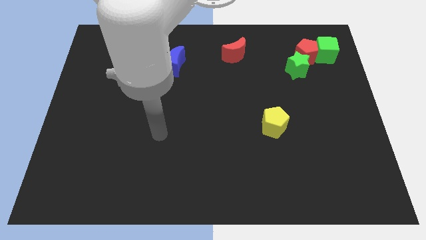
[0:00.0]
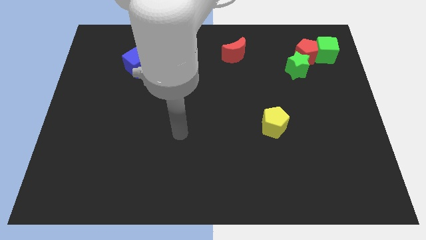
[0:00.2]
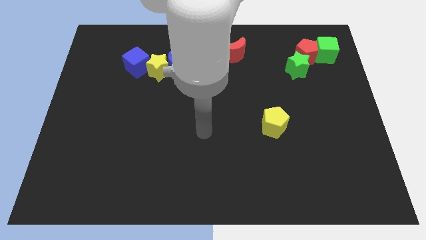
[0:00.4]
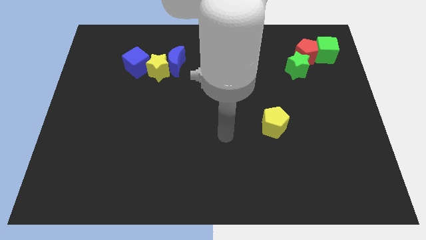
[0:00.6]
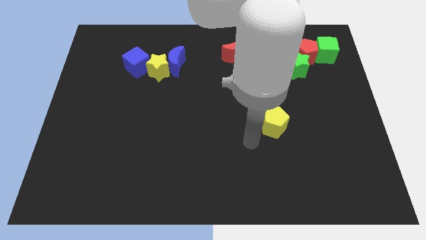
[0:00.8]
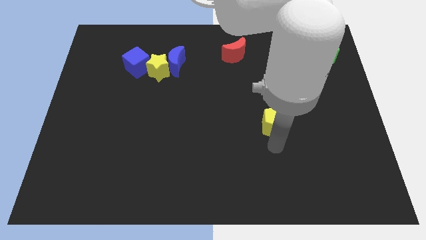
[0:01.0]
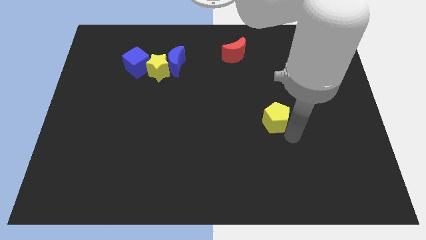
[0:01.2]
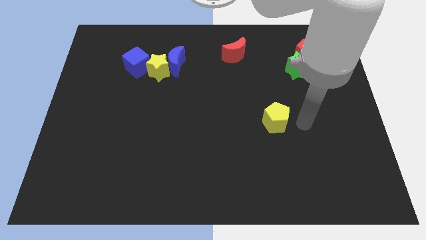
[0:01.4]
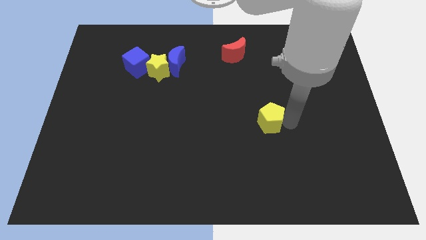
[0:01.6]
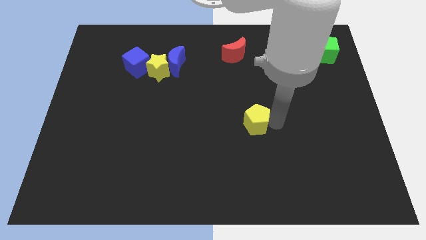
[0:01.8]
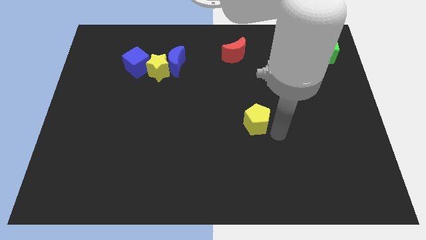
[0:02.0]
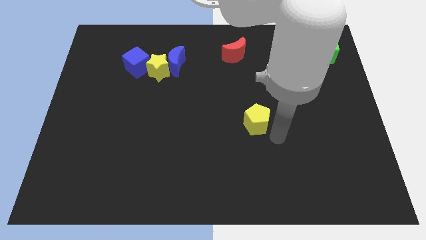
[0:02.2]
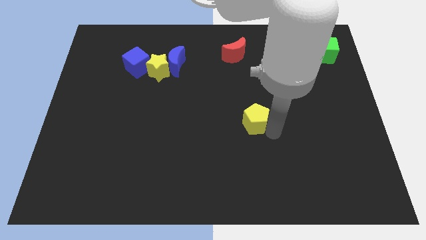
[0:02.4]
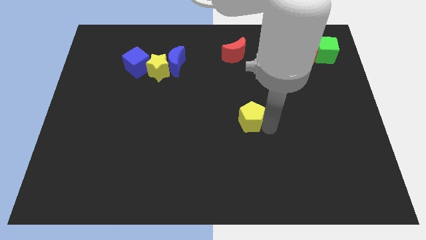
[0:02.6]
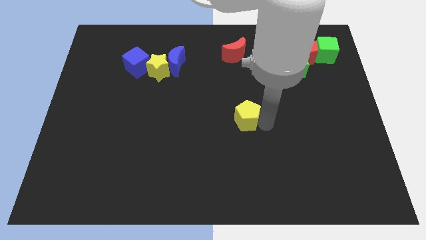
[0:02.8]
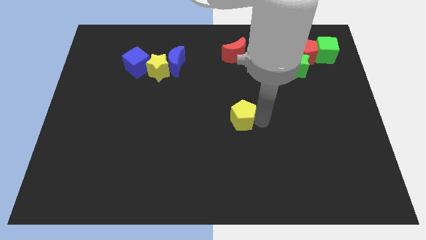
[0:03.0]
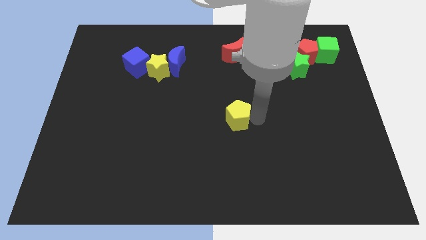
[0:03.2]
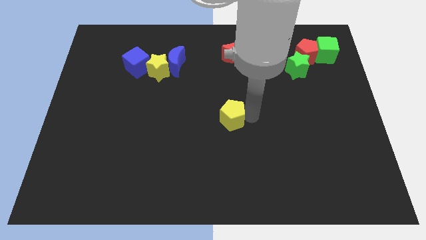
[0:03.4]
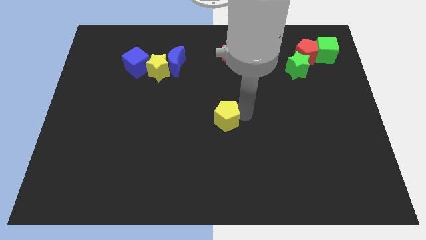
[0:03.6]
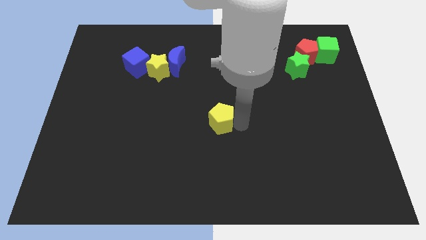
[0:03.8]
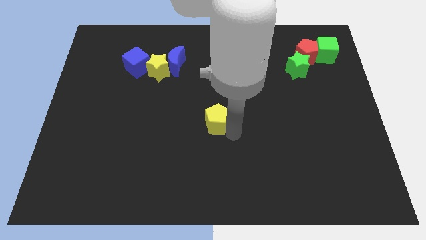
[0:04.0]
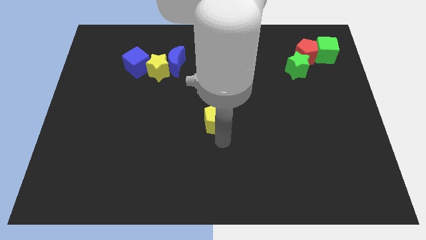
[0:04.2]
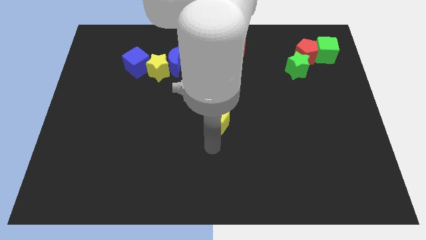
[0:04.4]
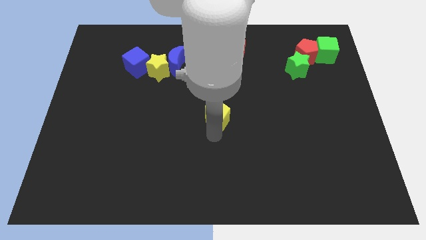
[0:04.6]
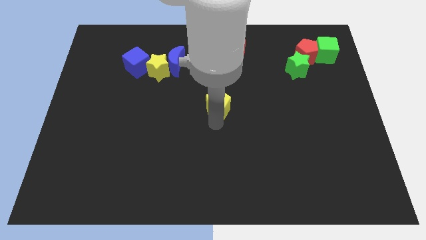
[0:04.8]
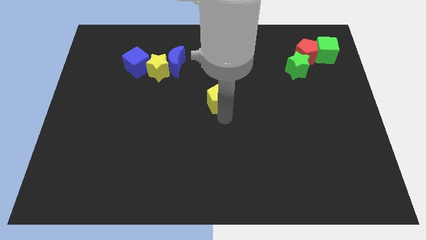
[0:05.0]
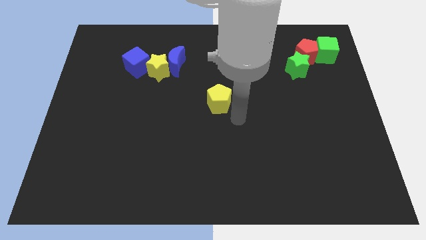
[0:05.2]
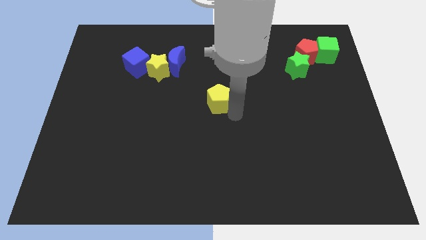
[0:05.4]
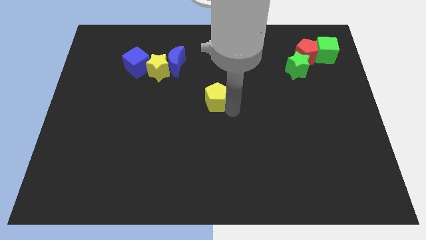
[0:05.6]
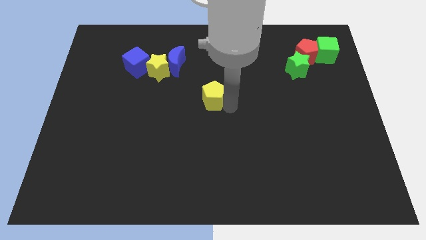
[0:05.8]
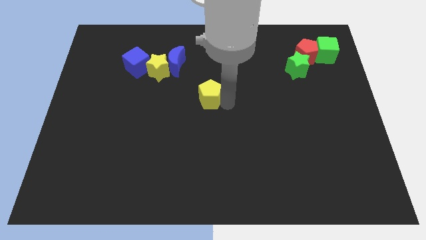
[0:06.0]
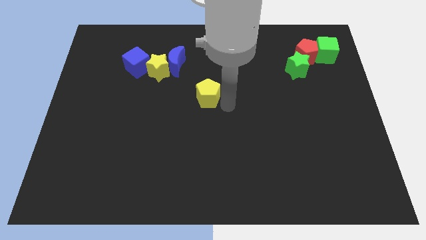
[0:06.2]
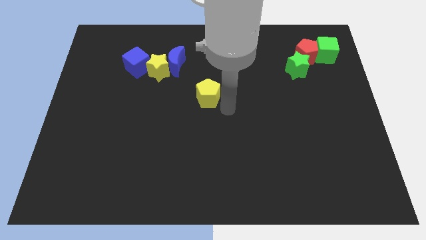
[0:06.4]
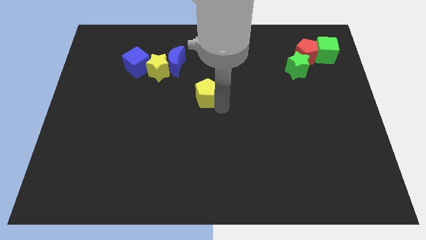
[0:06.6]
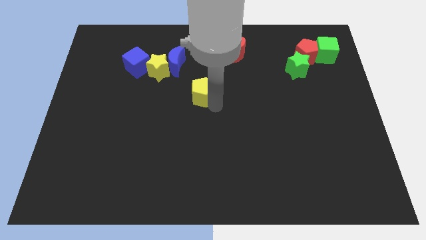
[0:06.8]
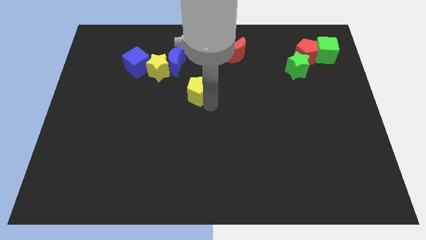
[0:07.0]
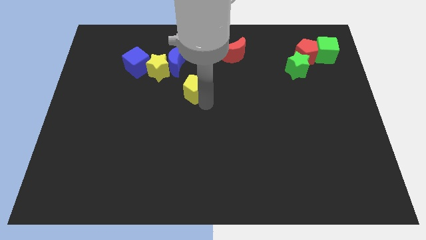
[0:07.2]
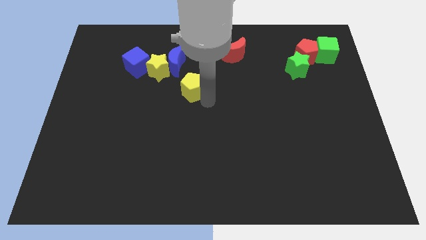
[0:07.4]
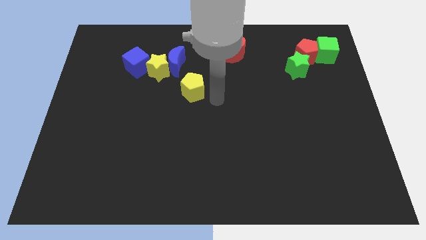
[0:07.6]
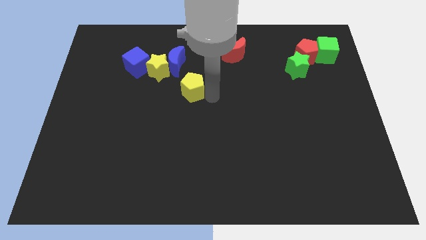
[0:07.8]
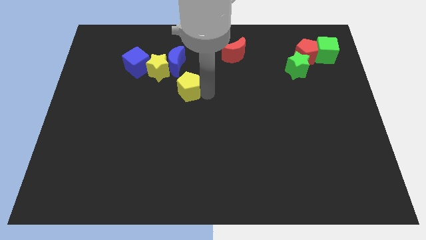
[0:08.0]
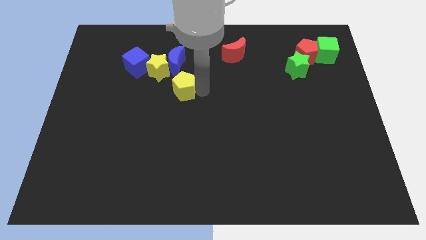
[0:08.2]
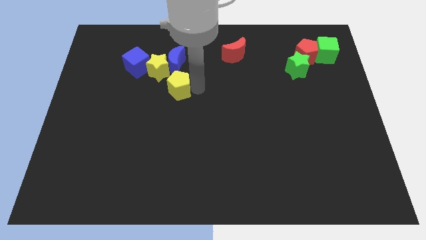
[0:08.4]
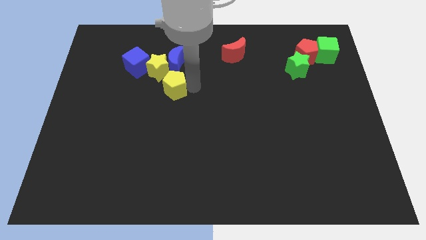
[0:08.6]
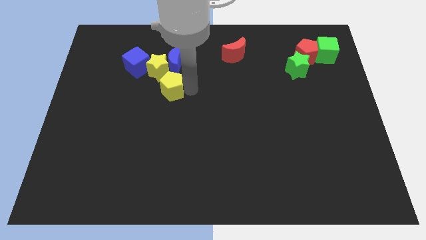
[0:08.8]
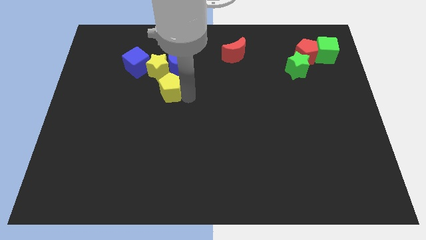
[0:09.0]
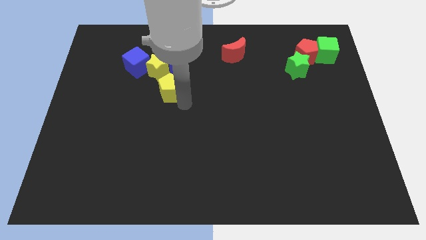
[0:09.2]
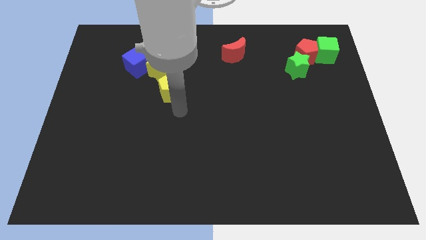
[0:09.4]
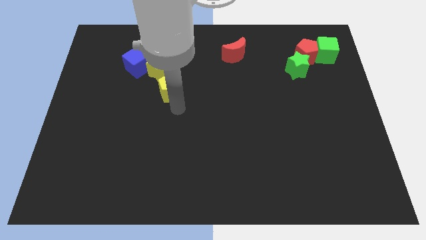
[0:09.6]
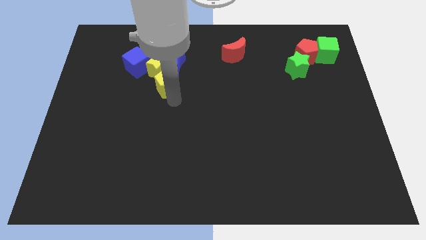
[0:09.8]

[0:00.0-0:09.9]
slide the yellow pentagon towards the yellow star

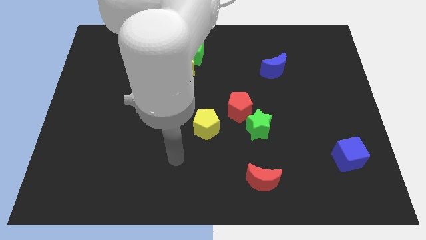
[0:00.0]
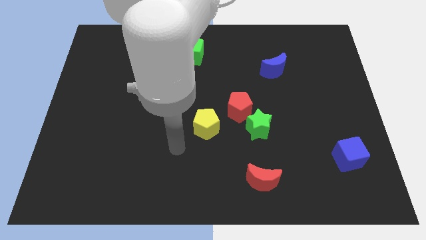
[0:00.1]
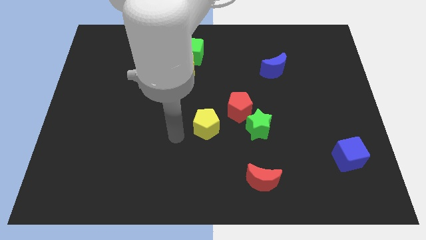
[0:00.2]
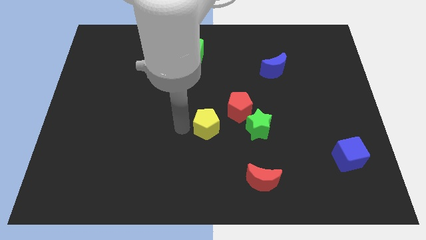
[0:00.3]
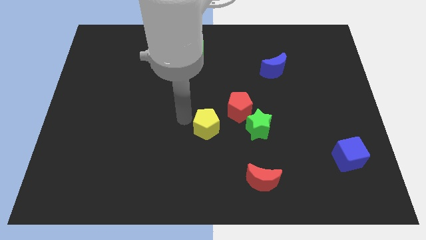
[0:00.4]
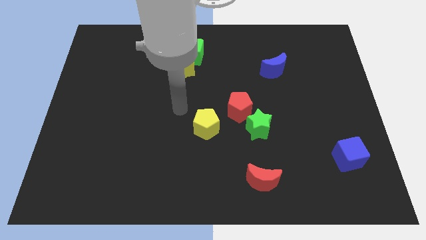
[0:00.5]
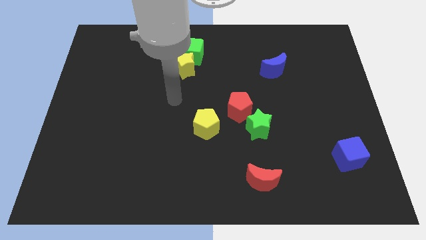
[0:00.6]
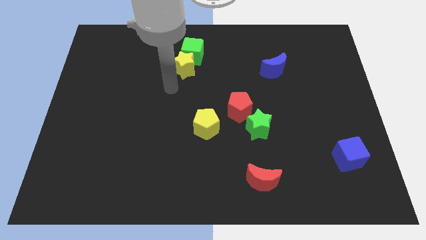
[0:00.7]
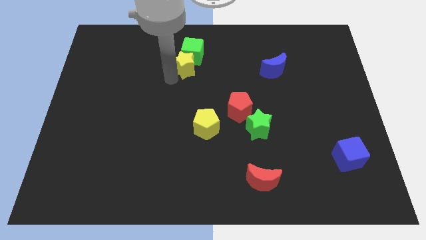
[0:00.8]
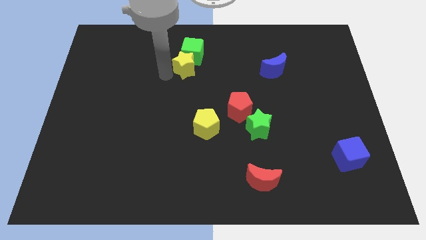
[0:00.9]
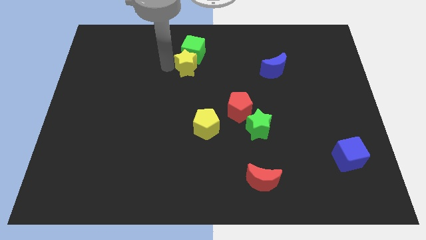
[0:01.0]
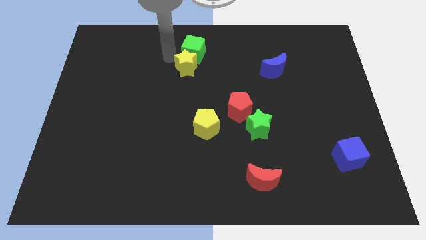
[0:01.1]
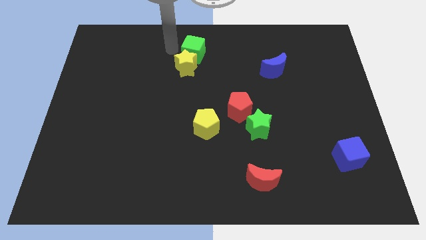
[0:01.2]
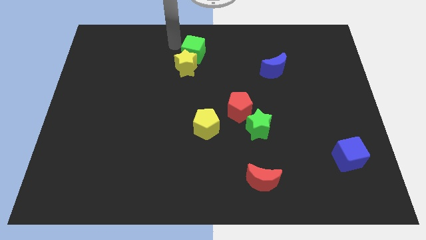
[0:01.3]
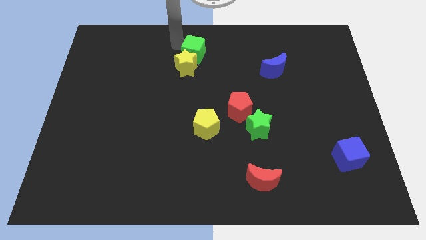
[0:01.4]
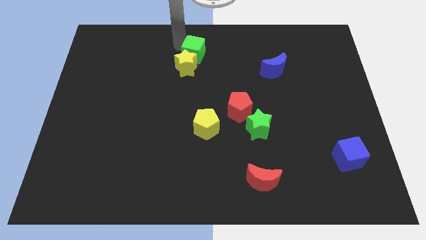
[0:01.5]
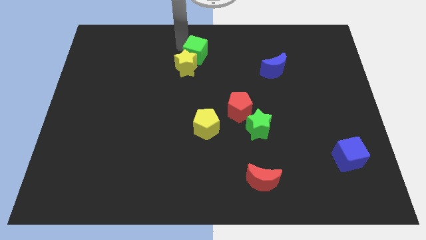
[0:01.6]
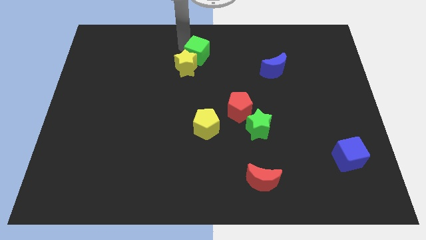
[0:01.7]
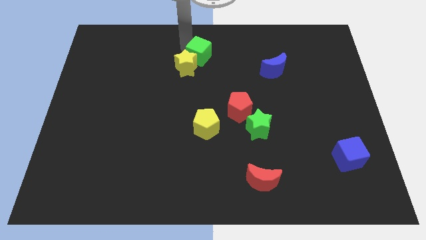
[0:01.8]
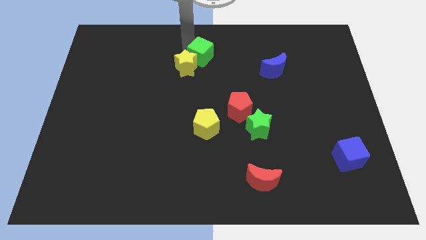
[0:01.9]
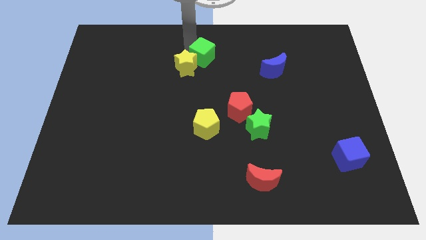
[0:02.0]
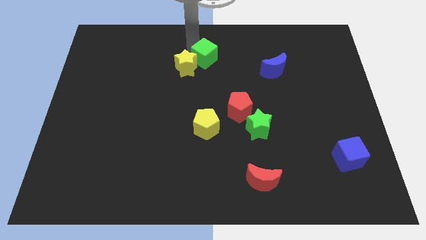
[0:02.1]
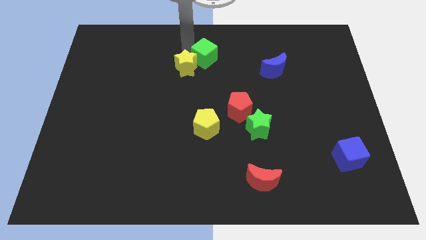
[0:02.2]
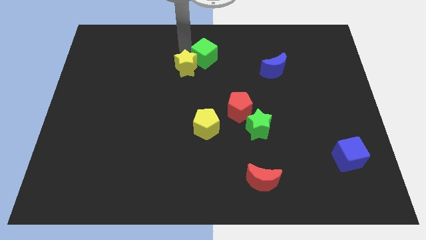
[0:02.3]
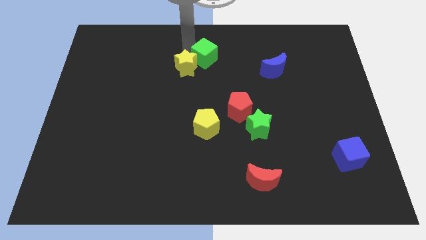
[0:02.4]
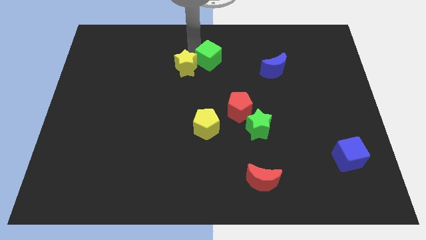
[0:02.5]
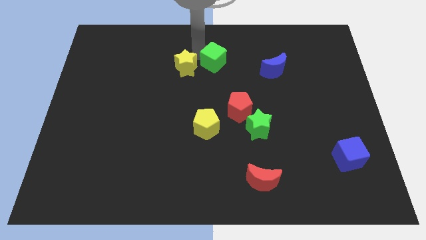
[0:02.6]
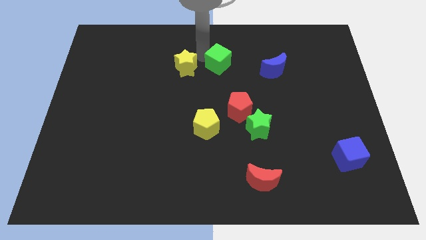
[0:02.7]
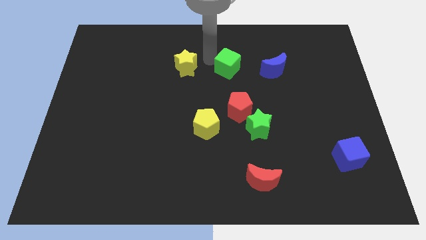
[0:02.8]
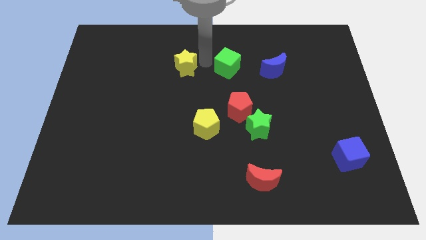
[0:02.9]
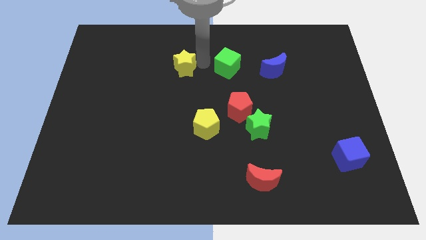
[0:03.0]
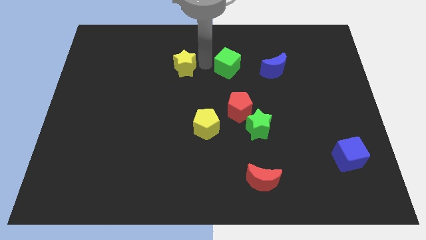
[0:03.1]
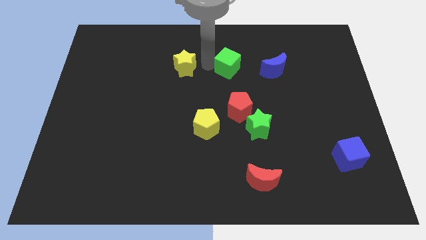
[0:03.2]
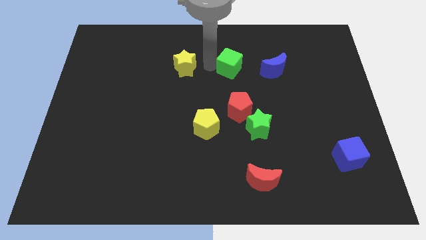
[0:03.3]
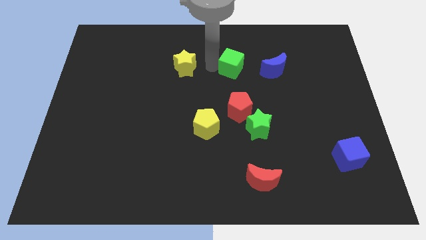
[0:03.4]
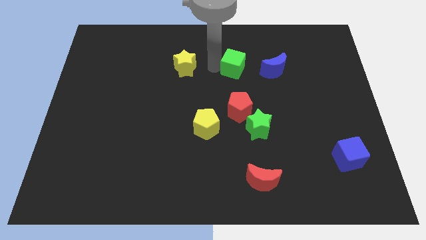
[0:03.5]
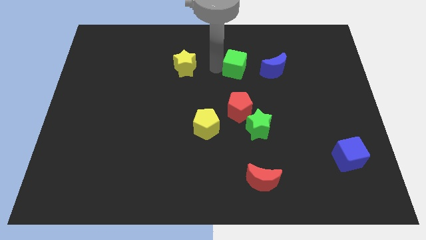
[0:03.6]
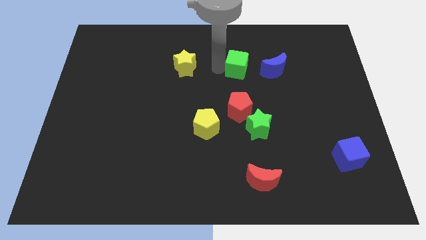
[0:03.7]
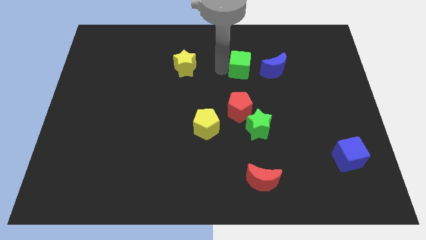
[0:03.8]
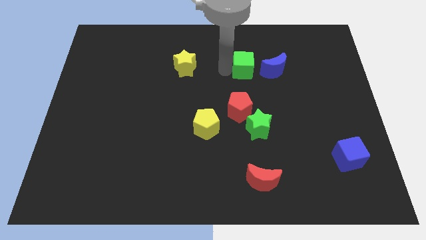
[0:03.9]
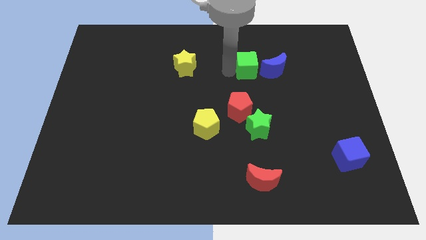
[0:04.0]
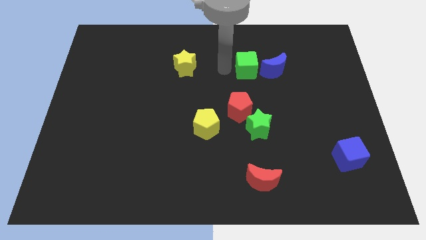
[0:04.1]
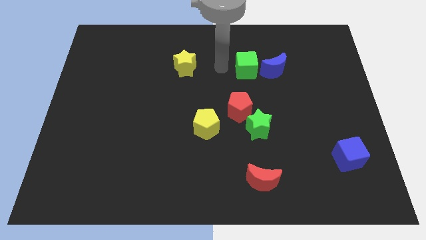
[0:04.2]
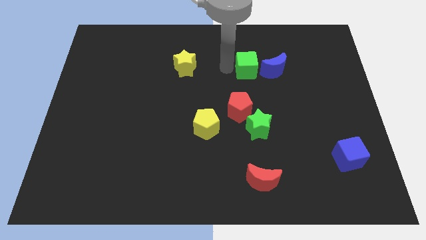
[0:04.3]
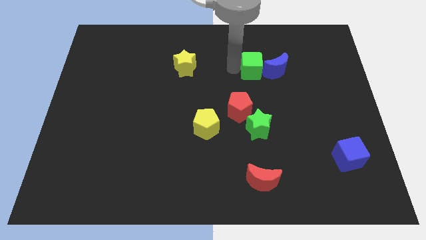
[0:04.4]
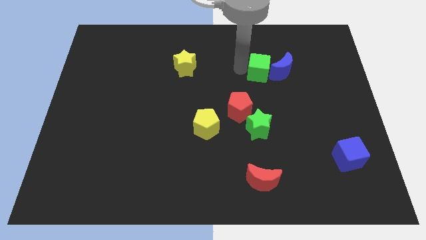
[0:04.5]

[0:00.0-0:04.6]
push the green cube close to the blue moon
